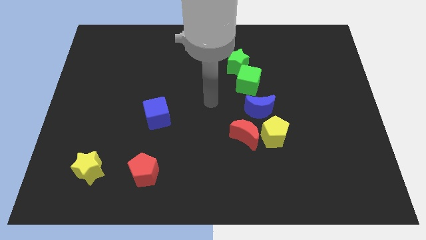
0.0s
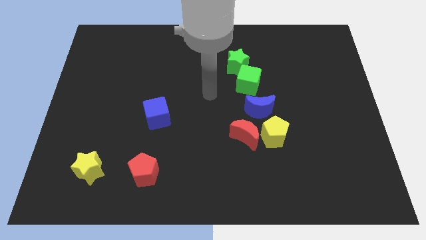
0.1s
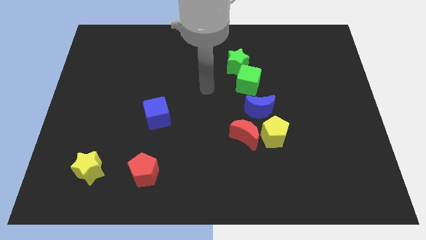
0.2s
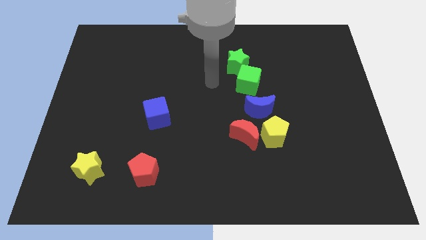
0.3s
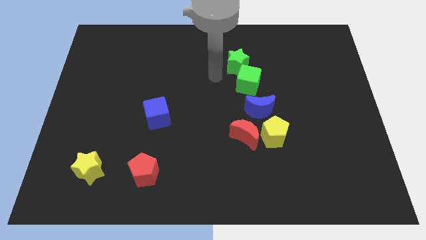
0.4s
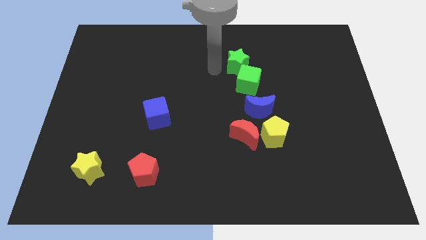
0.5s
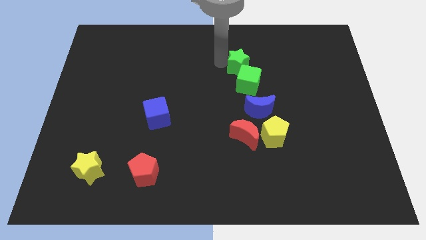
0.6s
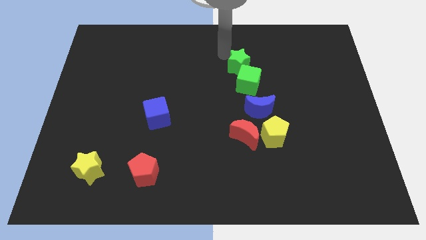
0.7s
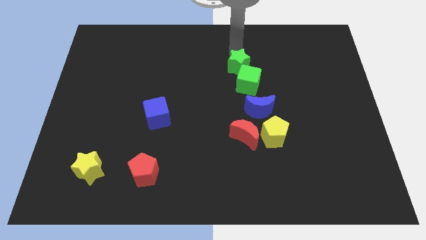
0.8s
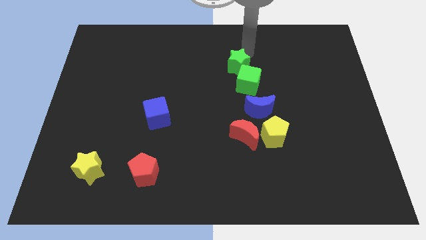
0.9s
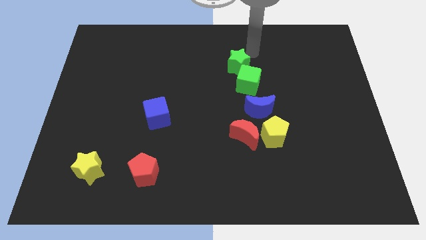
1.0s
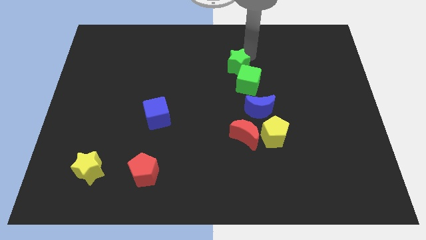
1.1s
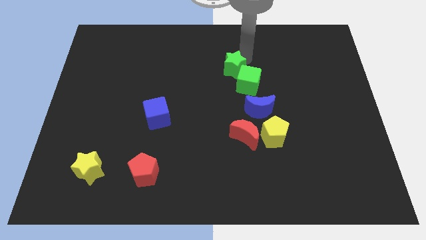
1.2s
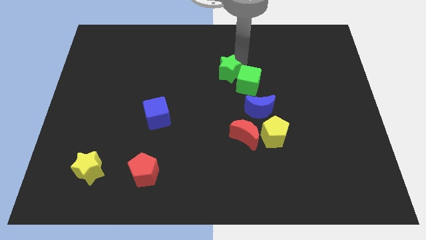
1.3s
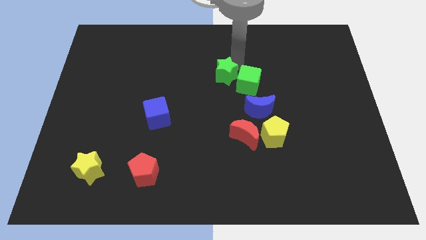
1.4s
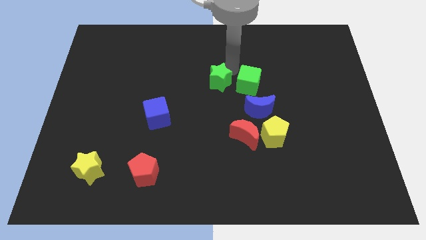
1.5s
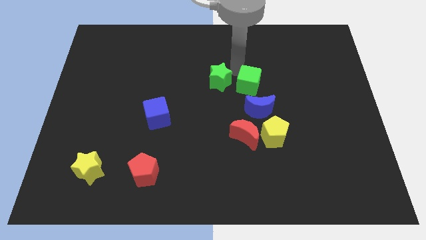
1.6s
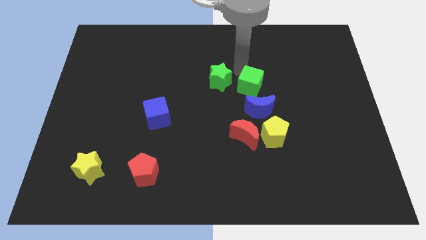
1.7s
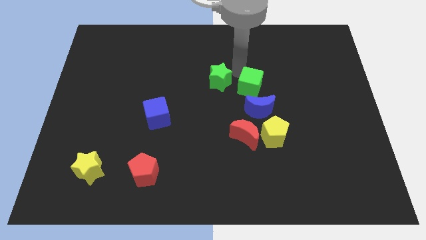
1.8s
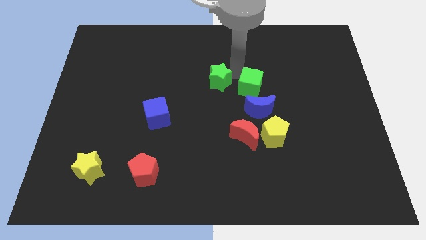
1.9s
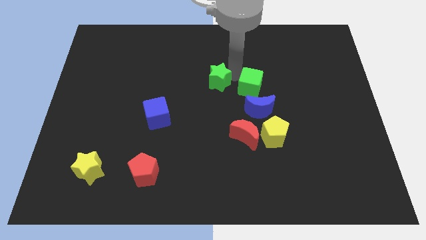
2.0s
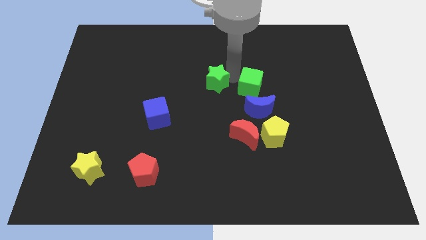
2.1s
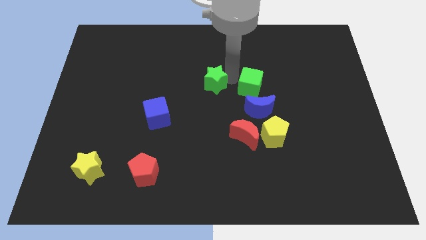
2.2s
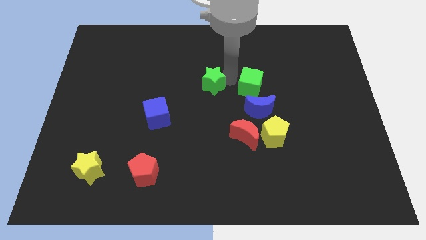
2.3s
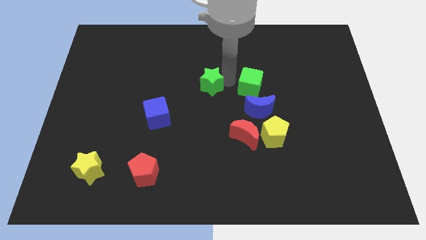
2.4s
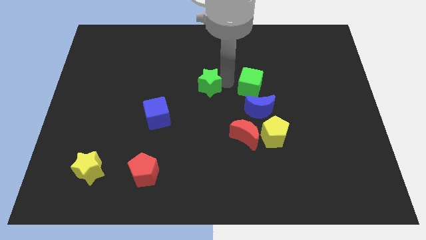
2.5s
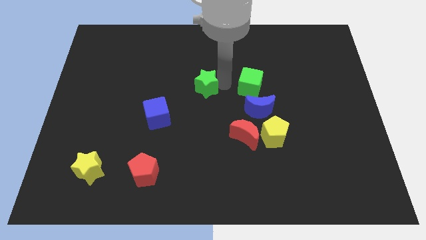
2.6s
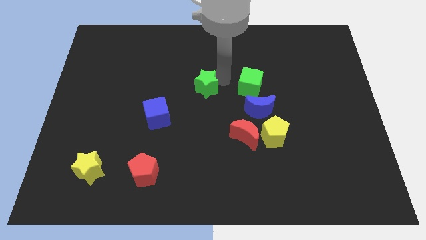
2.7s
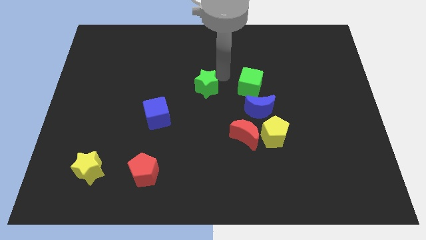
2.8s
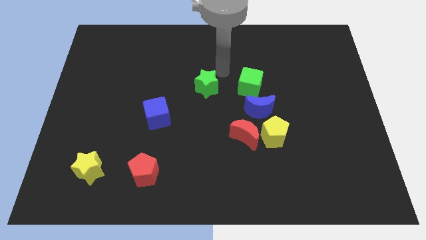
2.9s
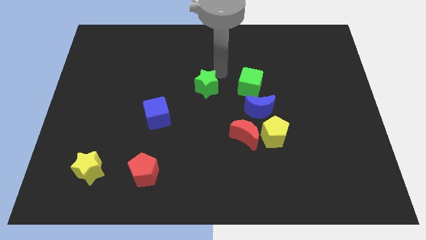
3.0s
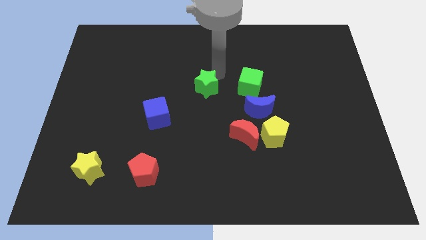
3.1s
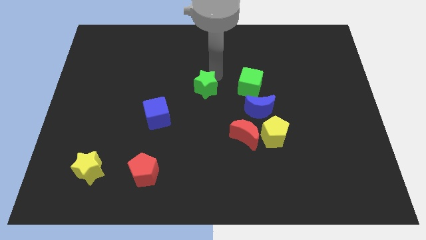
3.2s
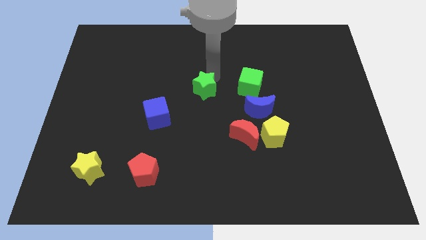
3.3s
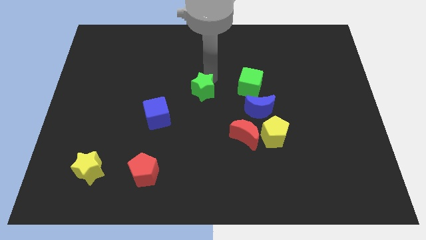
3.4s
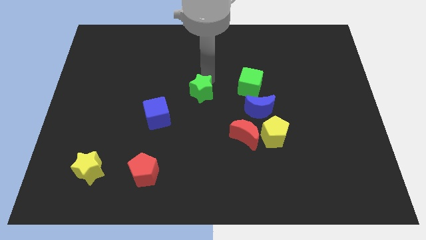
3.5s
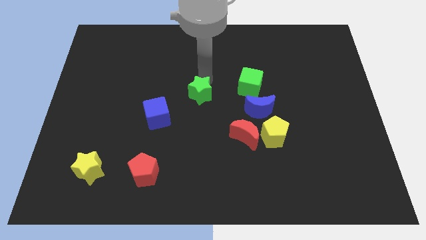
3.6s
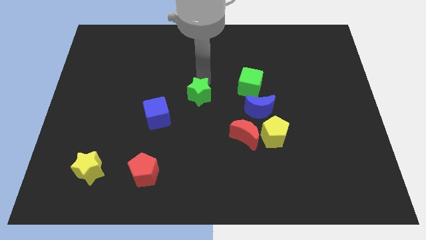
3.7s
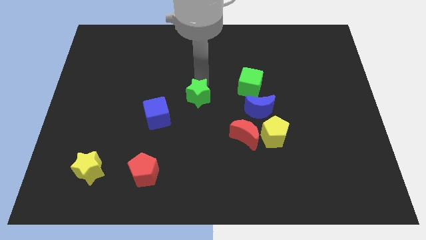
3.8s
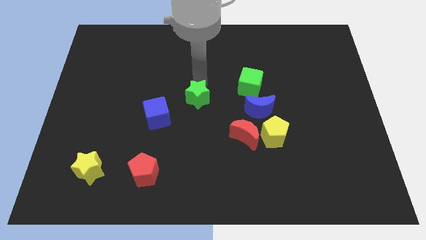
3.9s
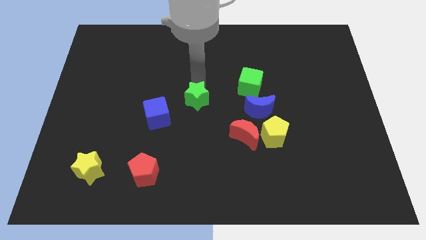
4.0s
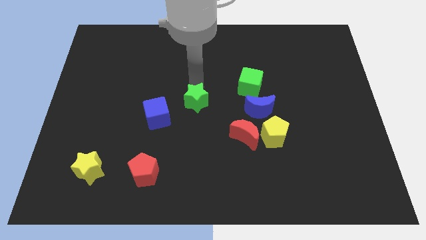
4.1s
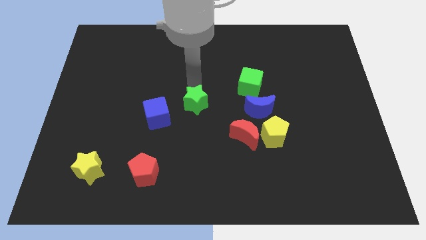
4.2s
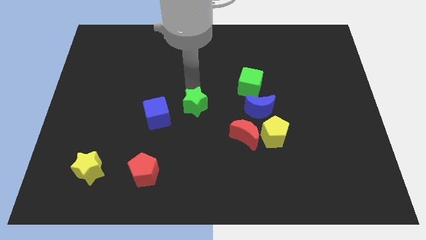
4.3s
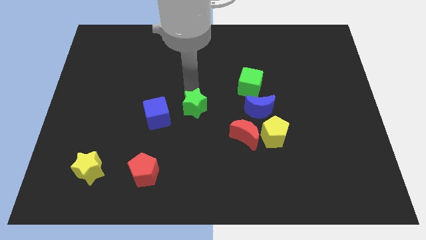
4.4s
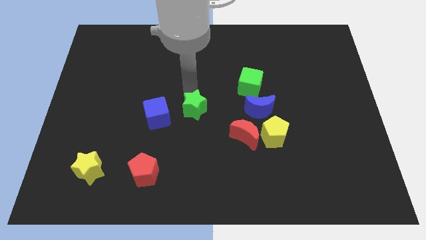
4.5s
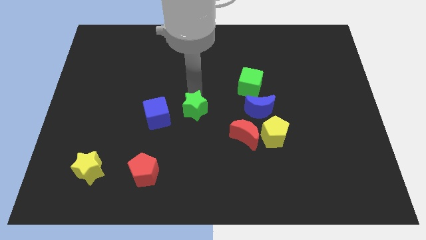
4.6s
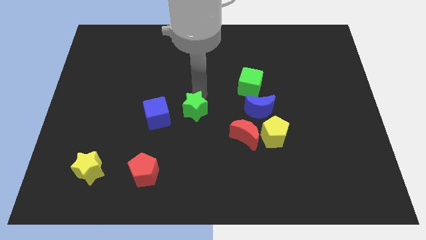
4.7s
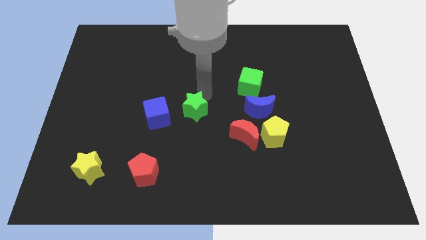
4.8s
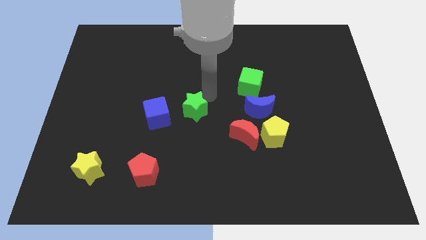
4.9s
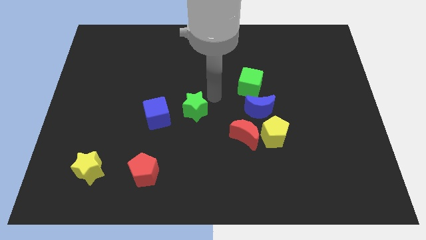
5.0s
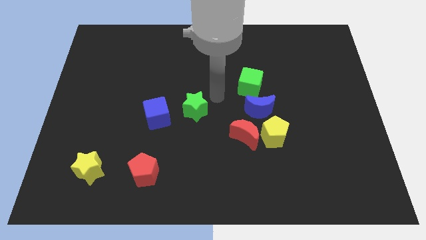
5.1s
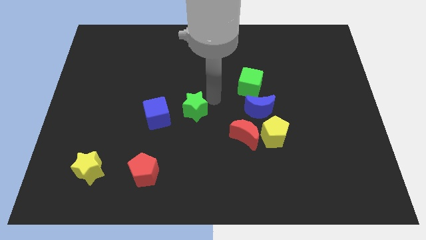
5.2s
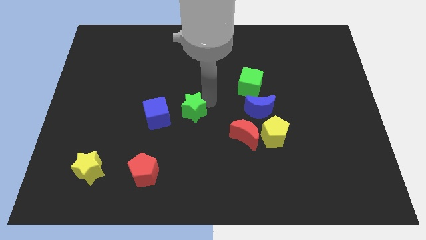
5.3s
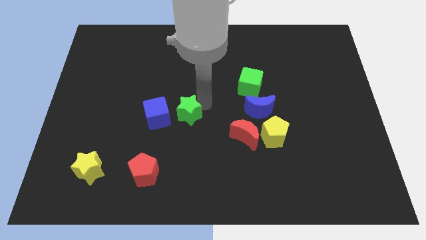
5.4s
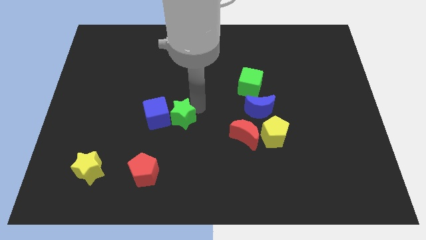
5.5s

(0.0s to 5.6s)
slide the green star diagonally down and to the left

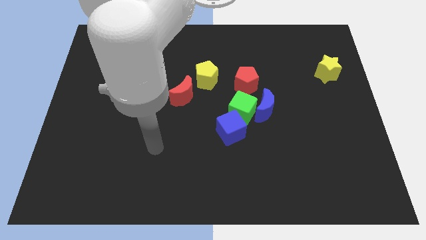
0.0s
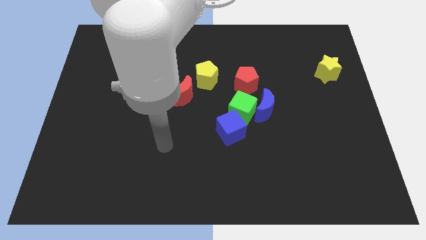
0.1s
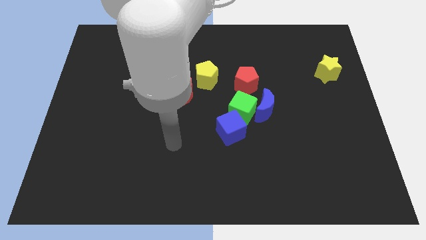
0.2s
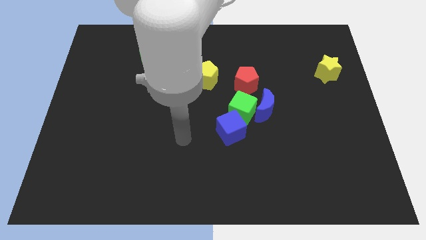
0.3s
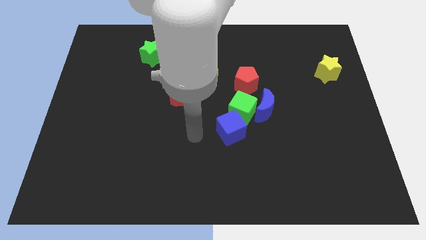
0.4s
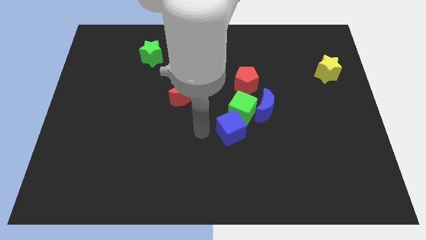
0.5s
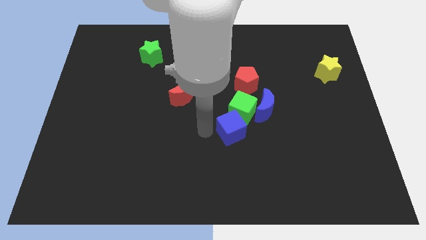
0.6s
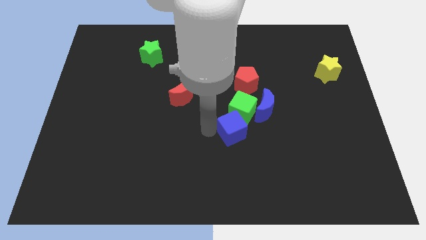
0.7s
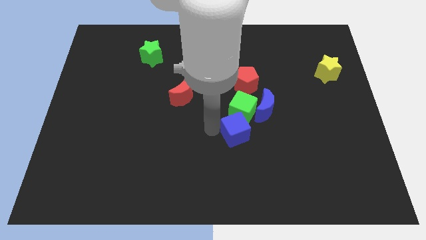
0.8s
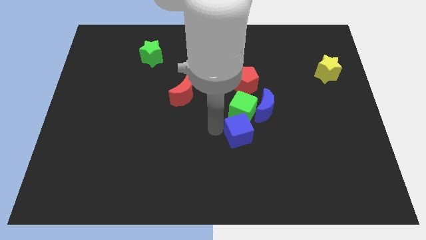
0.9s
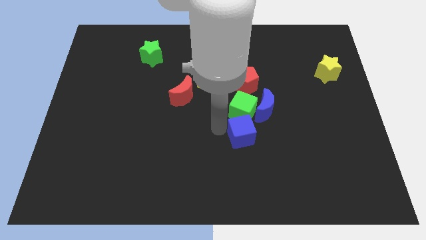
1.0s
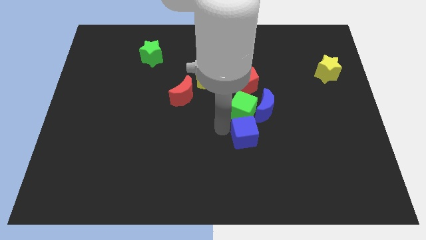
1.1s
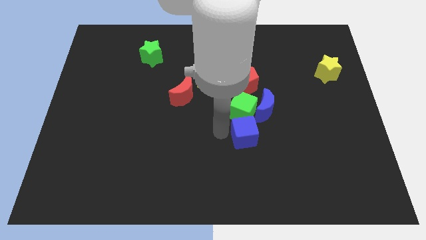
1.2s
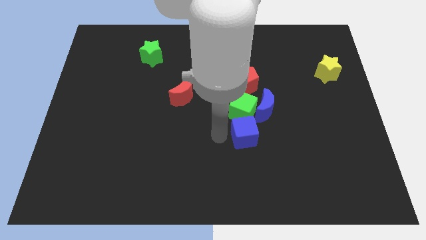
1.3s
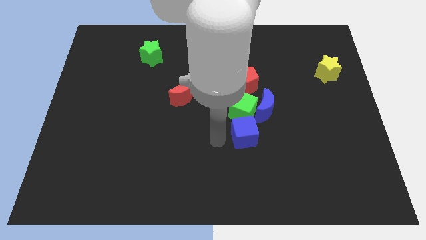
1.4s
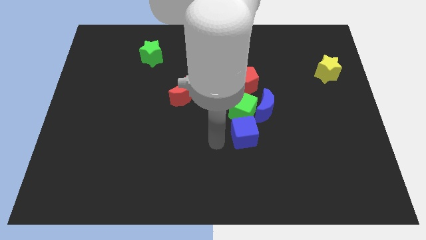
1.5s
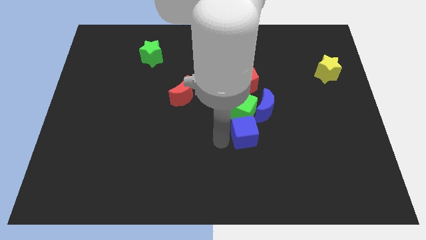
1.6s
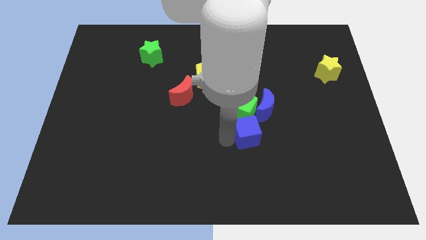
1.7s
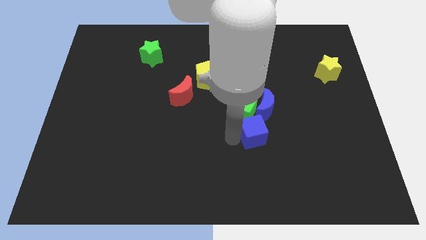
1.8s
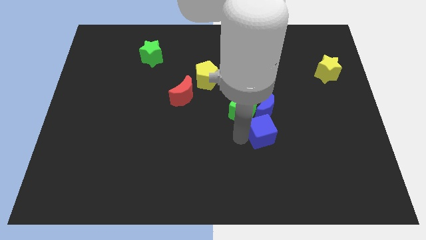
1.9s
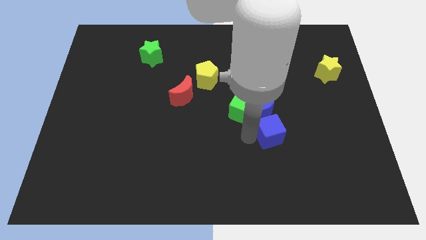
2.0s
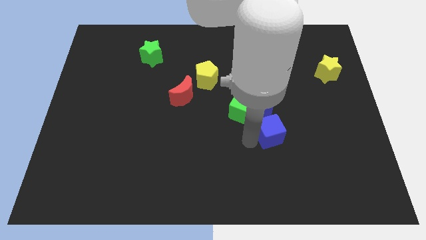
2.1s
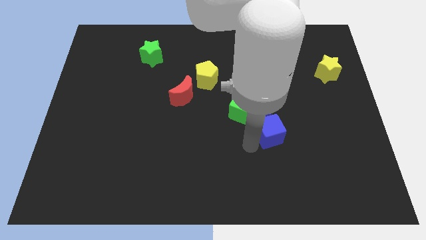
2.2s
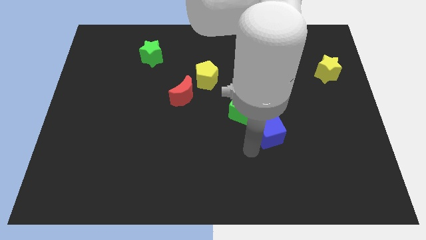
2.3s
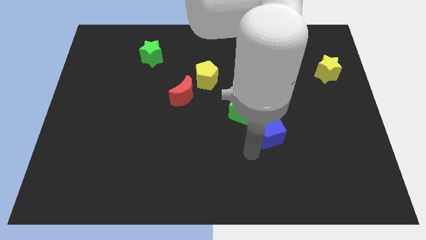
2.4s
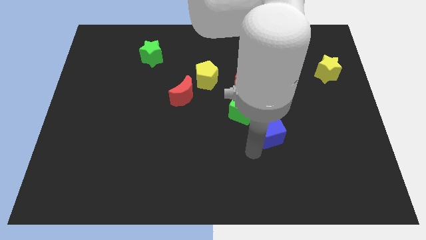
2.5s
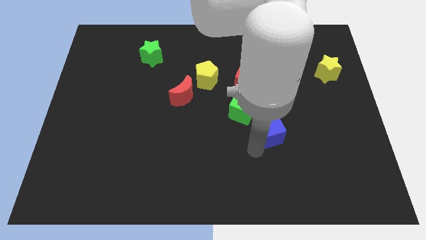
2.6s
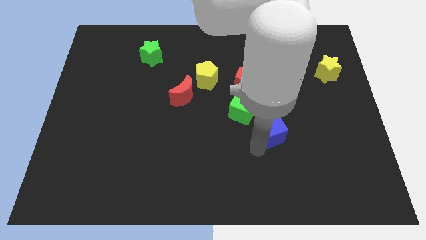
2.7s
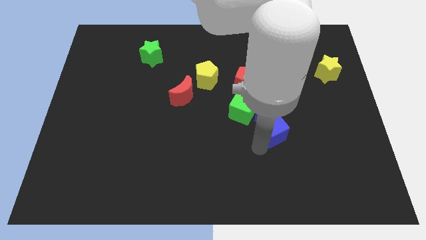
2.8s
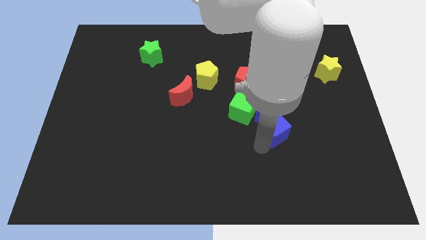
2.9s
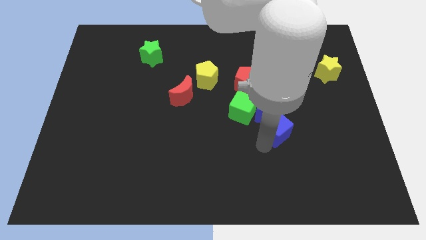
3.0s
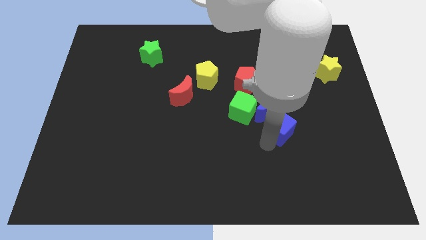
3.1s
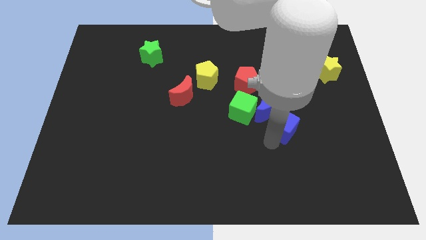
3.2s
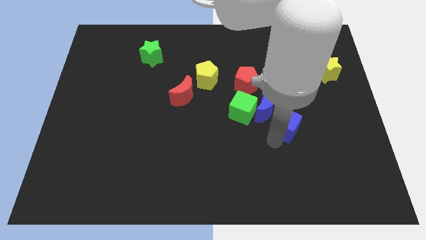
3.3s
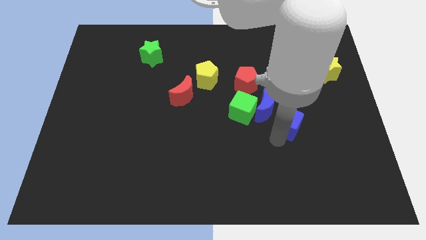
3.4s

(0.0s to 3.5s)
slightly move the blue cube up and right diagonally
